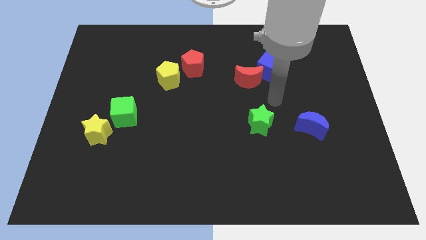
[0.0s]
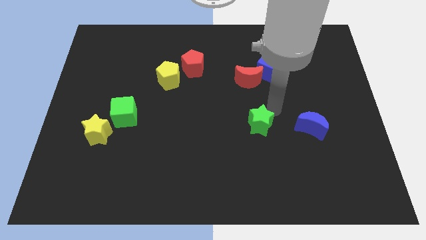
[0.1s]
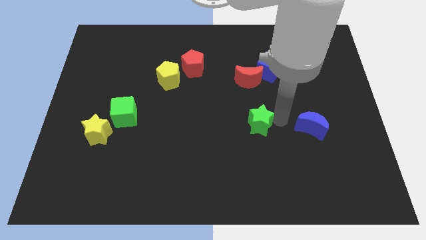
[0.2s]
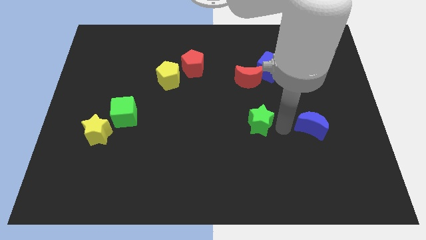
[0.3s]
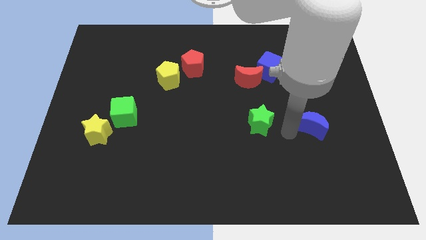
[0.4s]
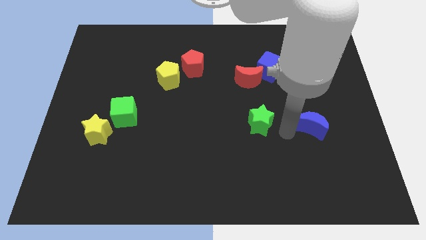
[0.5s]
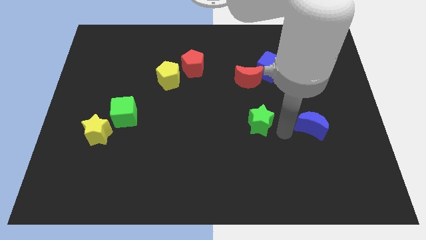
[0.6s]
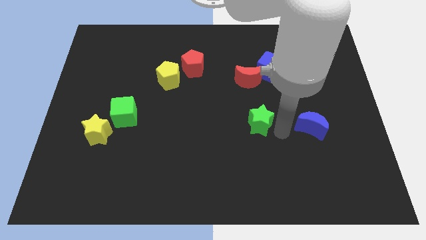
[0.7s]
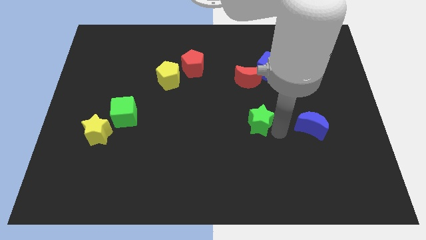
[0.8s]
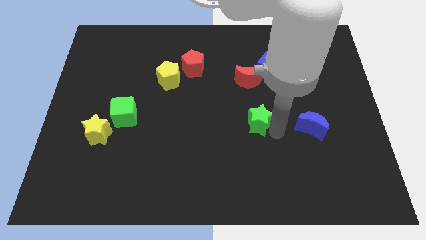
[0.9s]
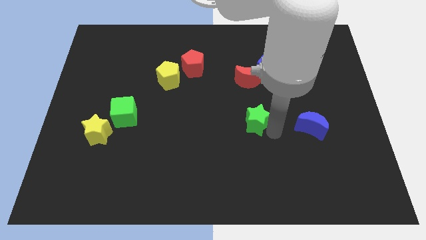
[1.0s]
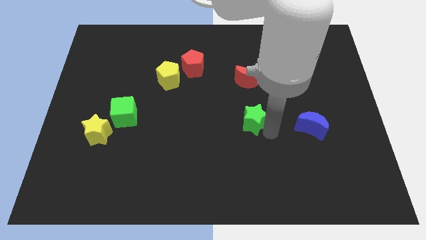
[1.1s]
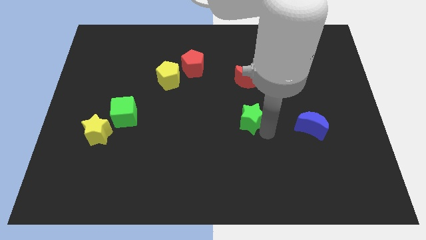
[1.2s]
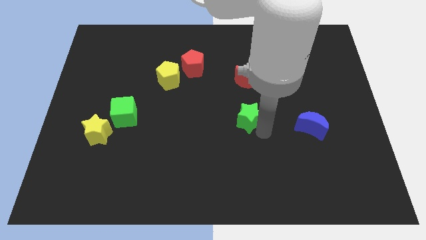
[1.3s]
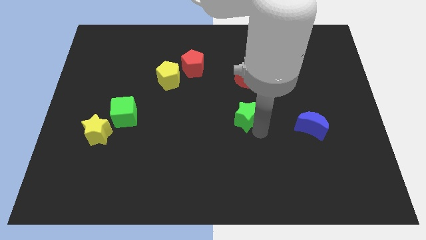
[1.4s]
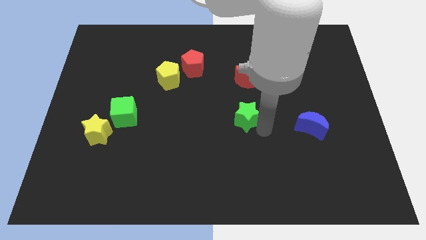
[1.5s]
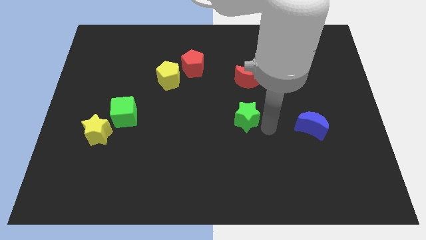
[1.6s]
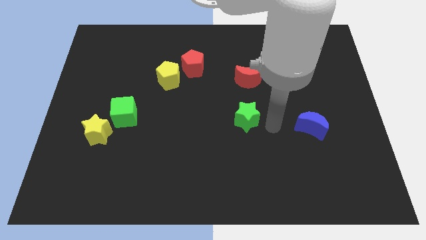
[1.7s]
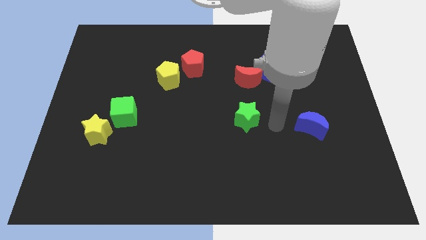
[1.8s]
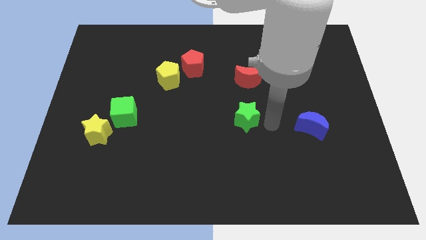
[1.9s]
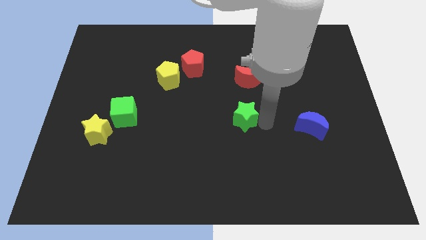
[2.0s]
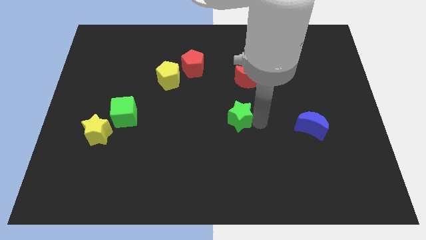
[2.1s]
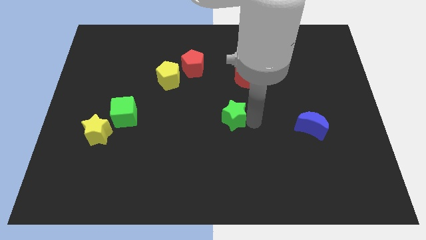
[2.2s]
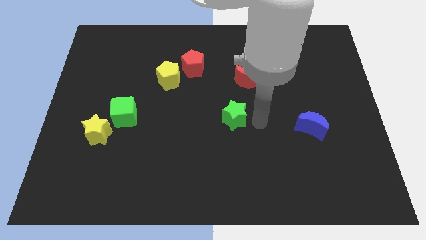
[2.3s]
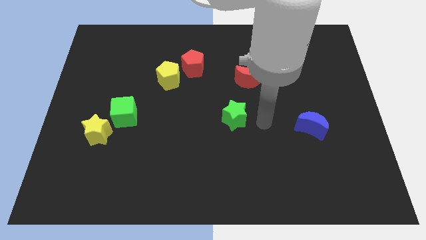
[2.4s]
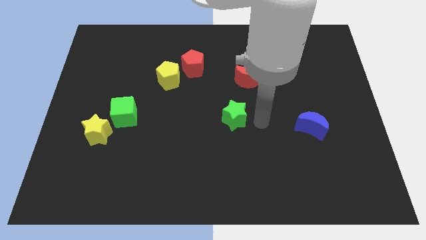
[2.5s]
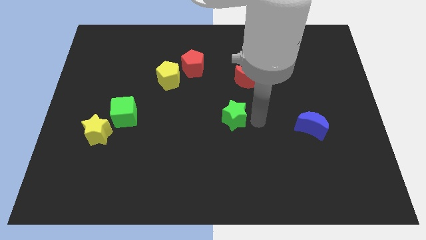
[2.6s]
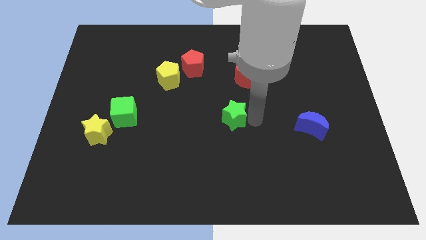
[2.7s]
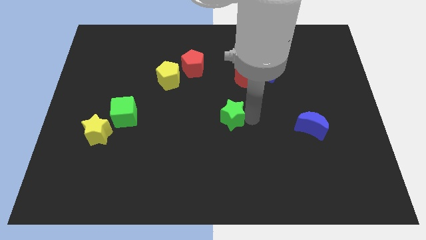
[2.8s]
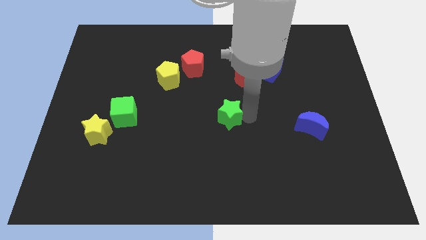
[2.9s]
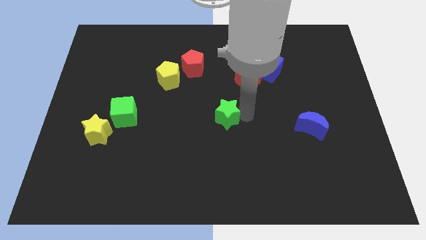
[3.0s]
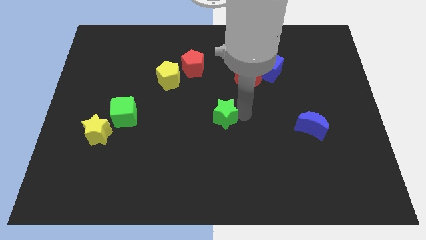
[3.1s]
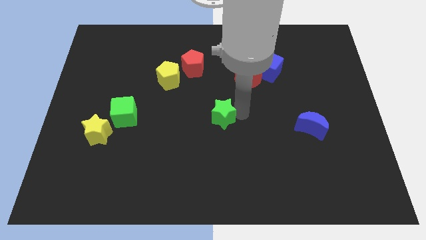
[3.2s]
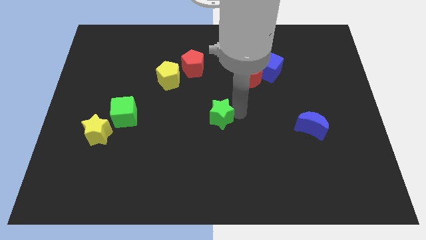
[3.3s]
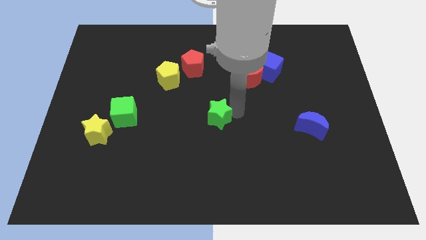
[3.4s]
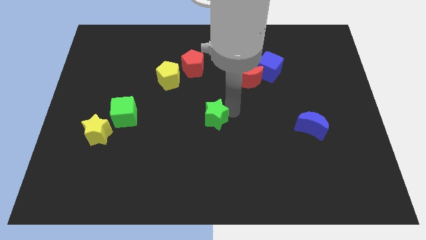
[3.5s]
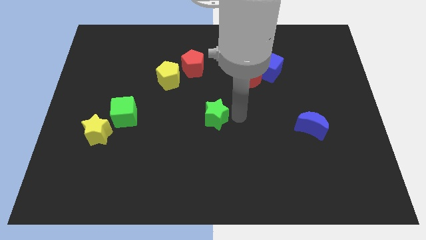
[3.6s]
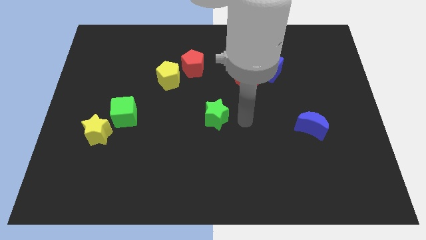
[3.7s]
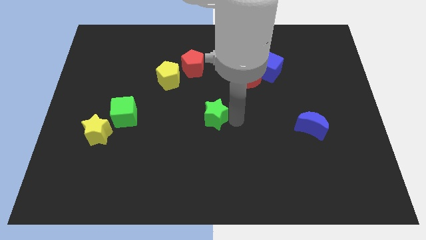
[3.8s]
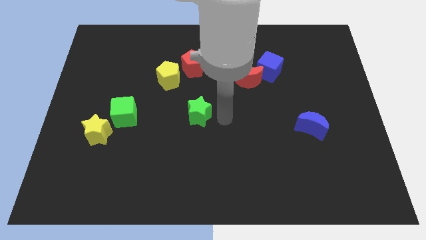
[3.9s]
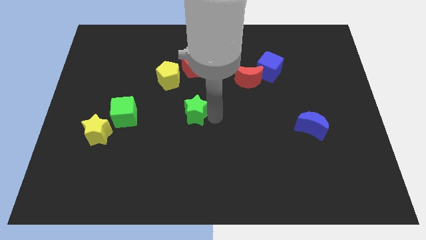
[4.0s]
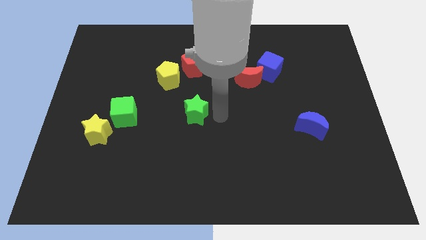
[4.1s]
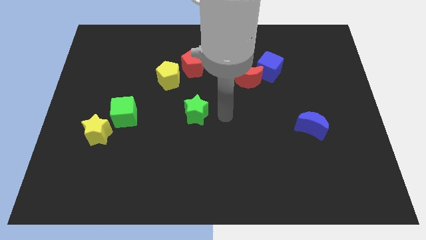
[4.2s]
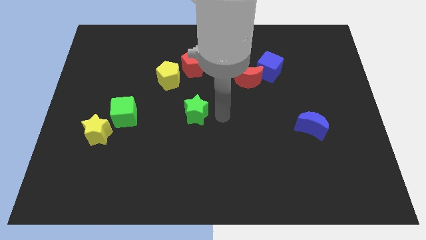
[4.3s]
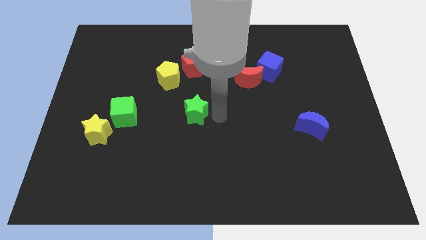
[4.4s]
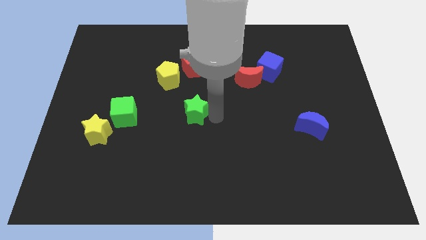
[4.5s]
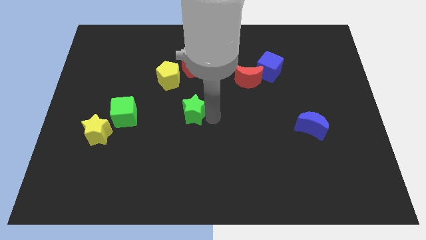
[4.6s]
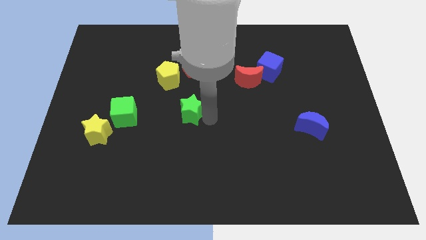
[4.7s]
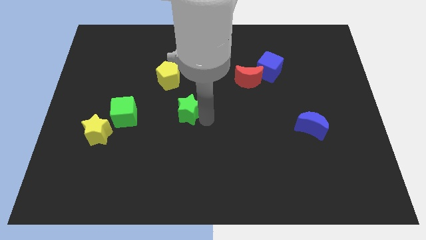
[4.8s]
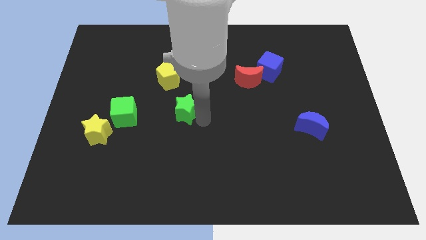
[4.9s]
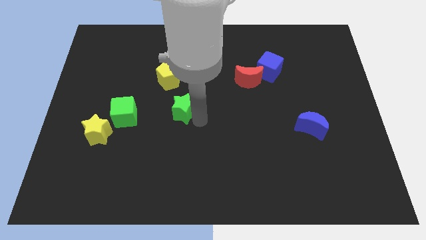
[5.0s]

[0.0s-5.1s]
move the green star below the yellow pentagon

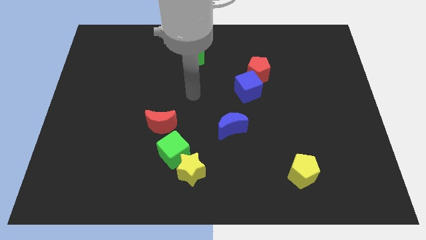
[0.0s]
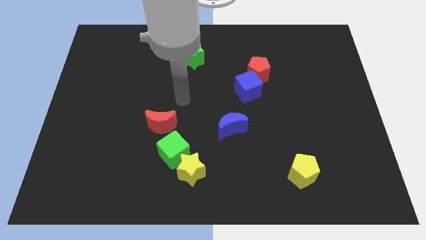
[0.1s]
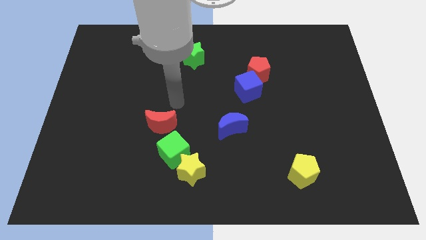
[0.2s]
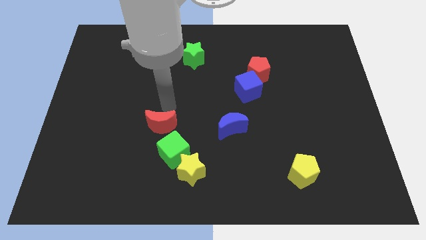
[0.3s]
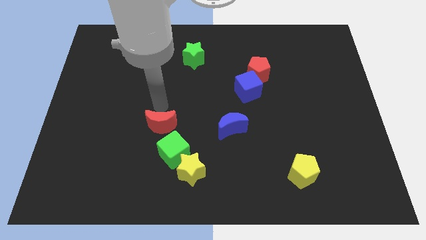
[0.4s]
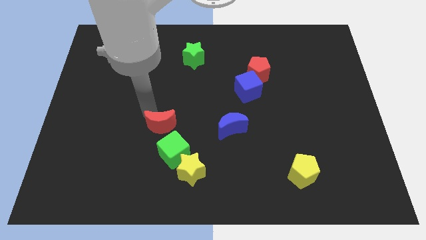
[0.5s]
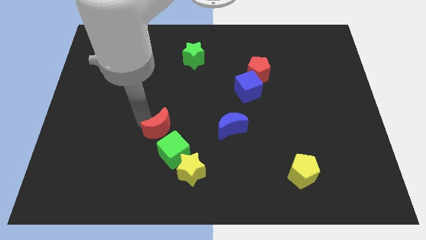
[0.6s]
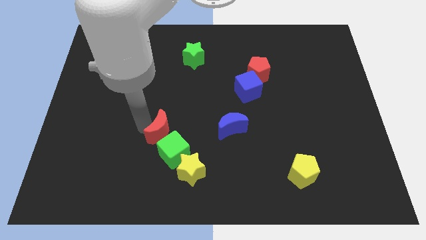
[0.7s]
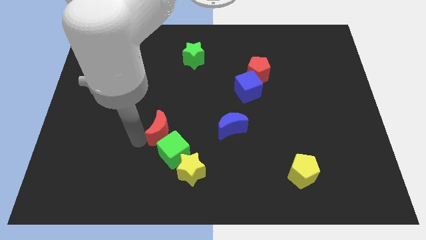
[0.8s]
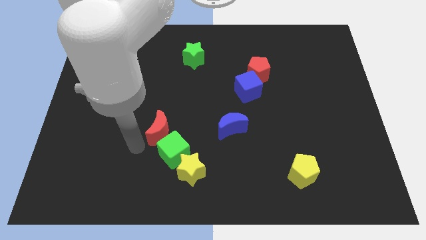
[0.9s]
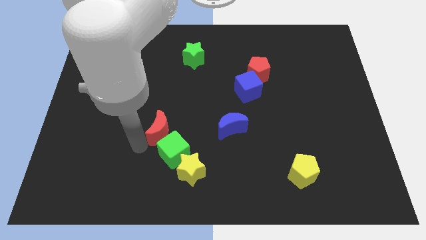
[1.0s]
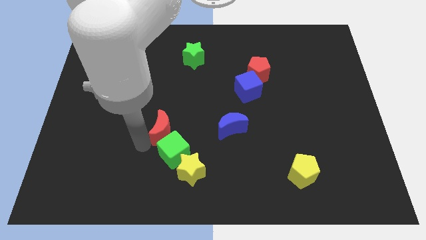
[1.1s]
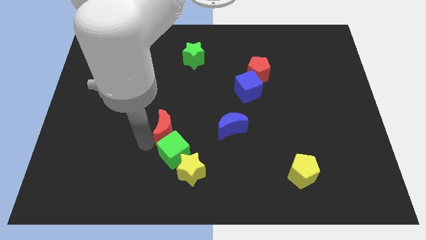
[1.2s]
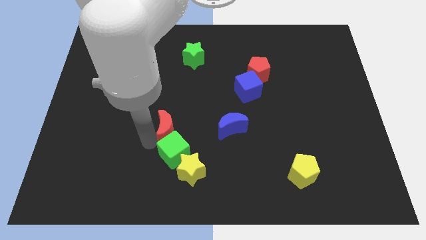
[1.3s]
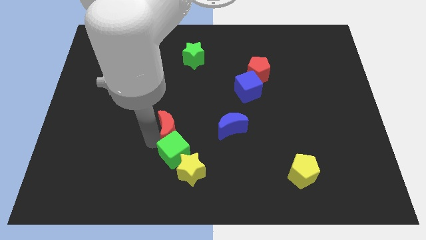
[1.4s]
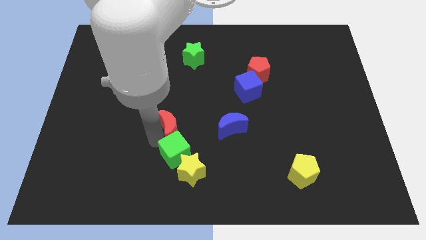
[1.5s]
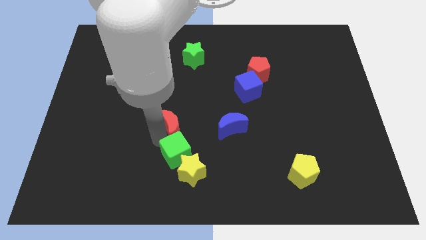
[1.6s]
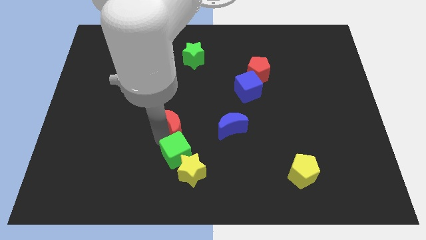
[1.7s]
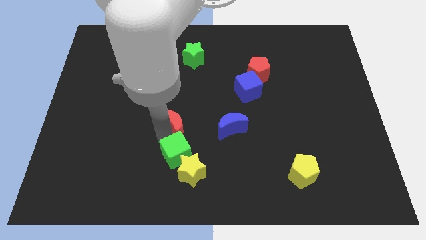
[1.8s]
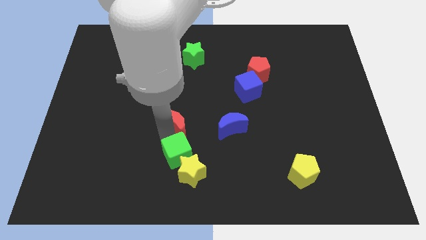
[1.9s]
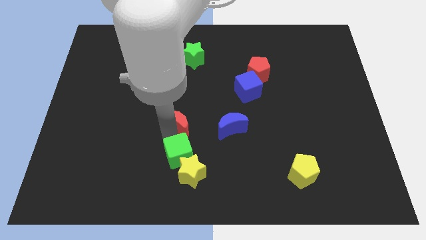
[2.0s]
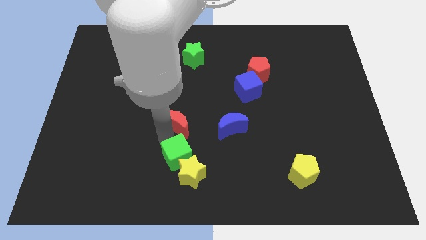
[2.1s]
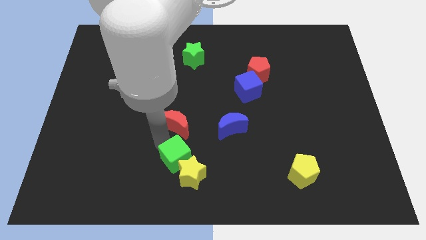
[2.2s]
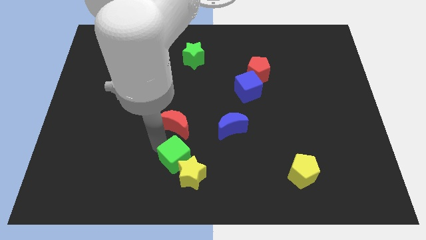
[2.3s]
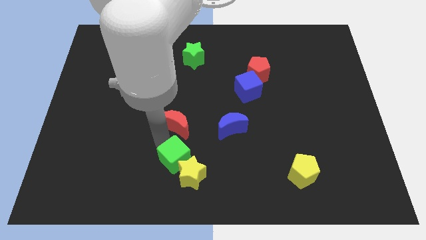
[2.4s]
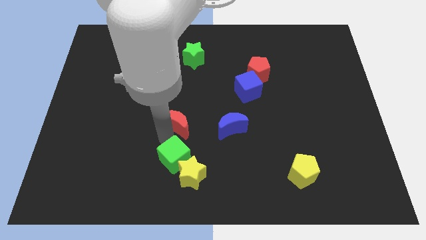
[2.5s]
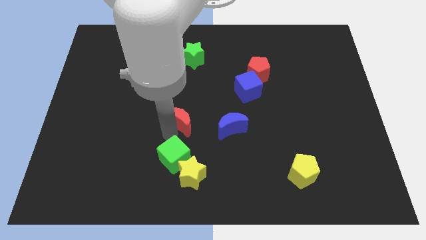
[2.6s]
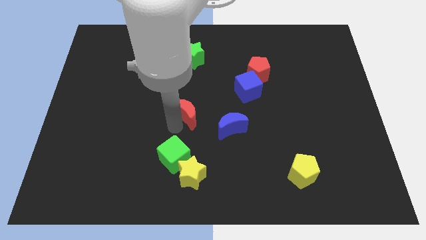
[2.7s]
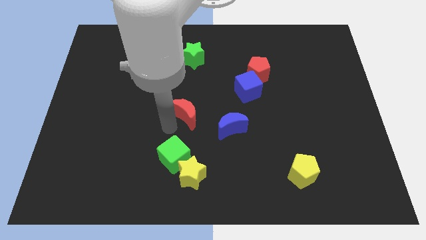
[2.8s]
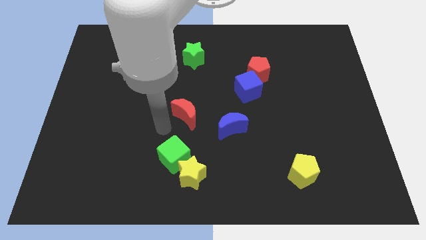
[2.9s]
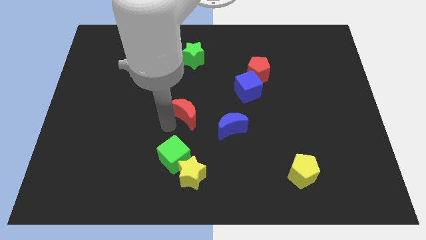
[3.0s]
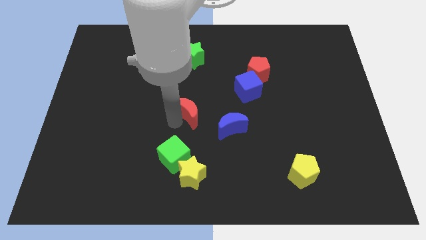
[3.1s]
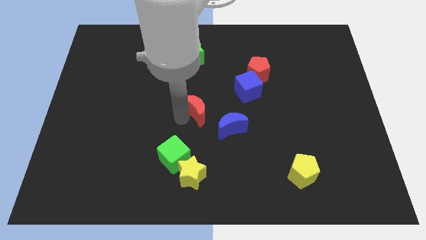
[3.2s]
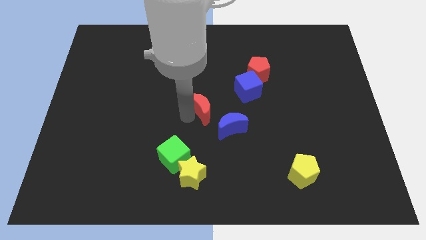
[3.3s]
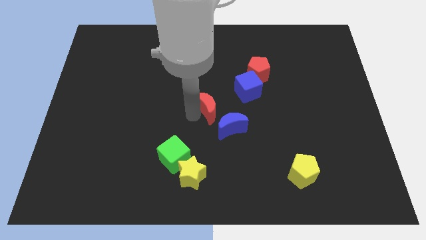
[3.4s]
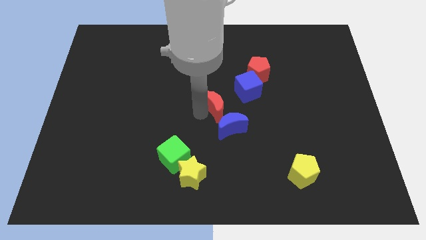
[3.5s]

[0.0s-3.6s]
slide the red moon to the top of the blue moon
